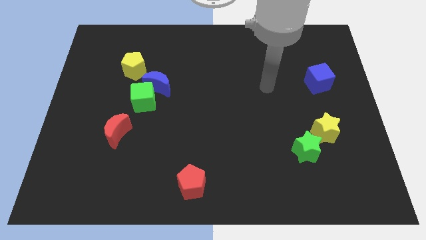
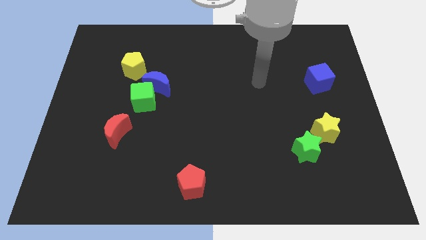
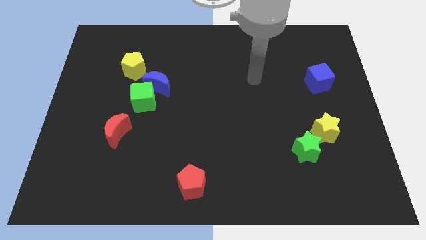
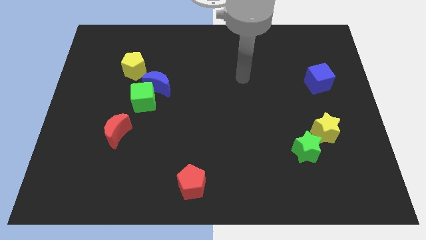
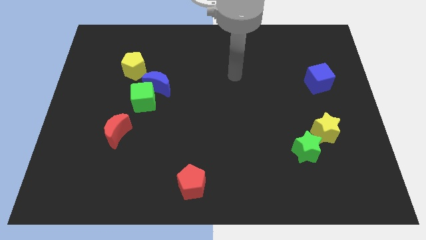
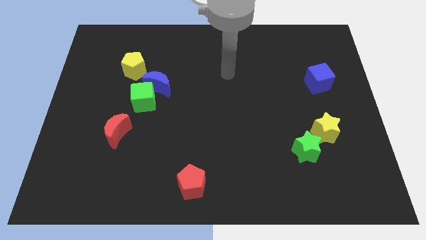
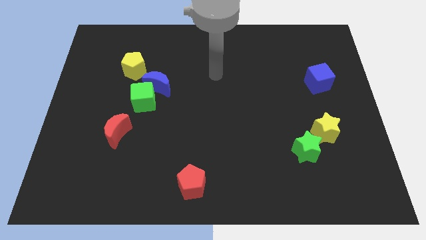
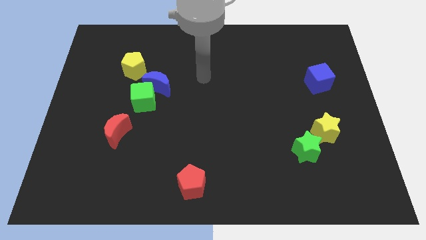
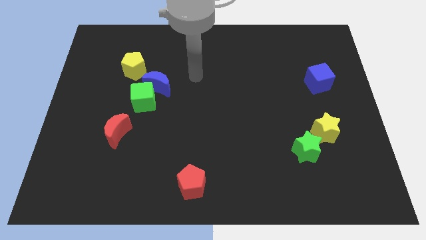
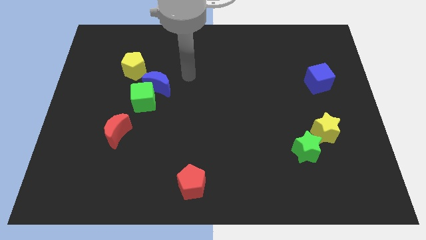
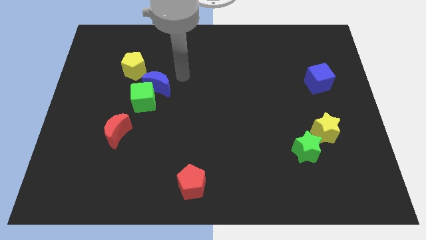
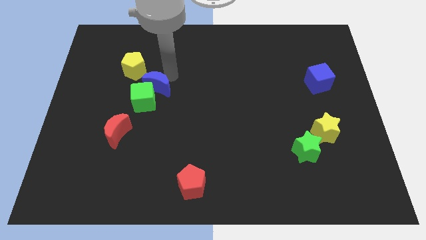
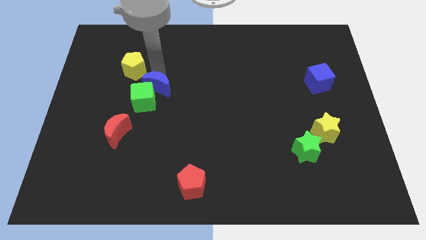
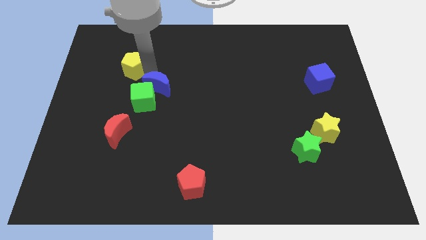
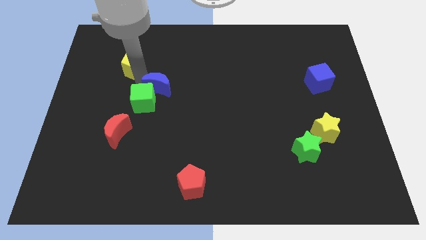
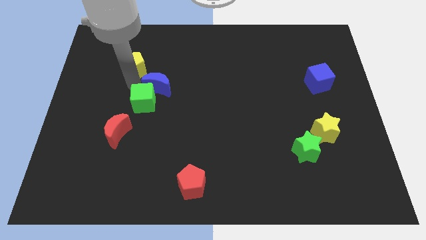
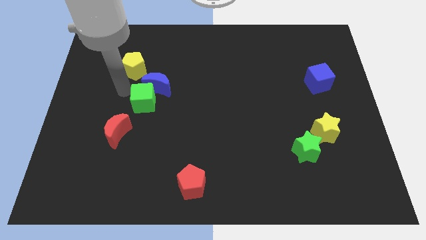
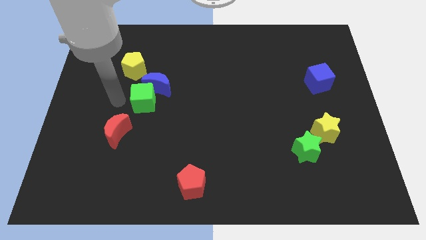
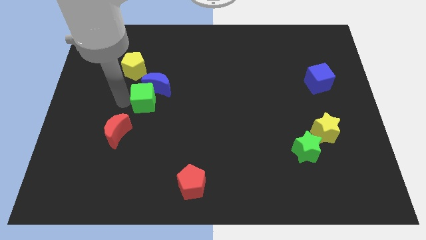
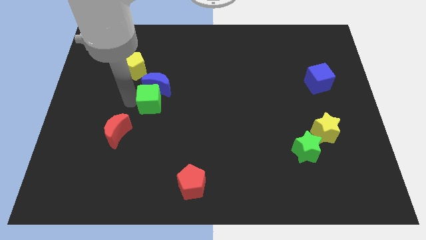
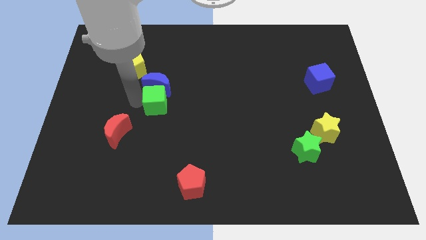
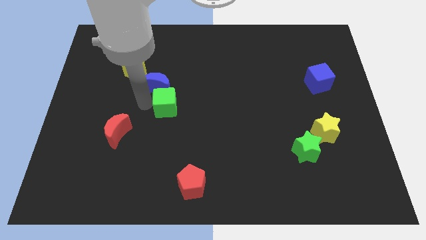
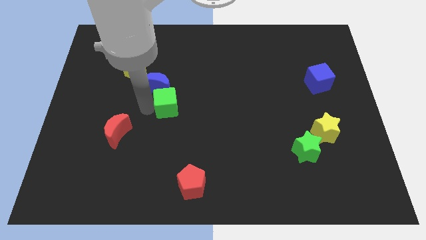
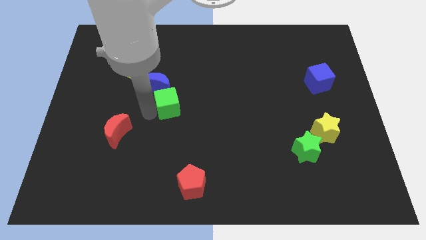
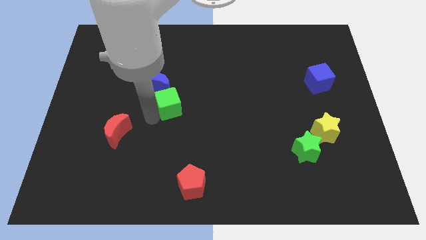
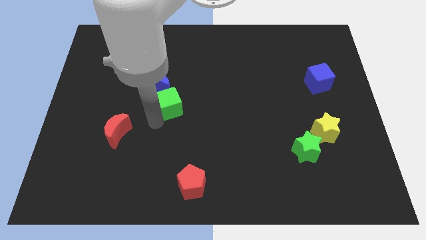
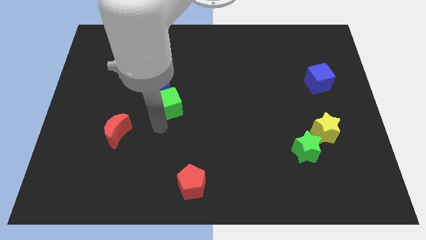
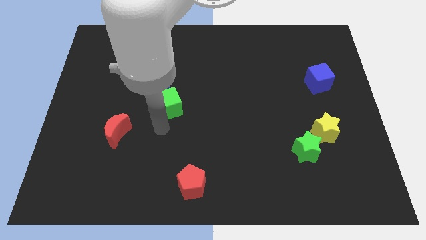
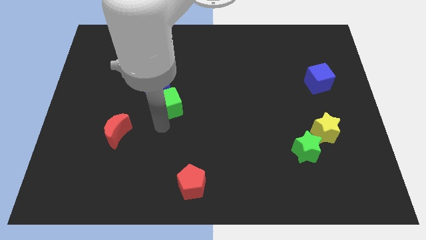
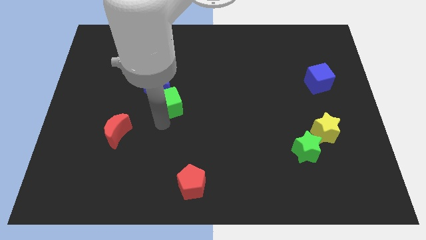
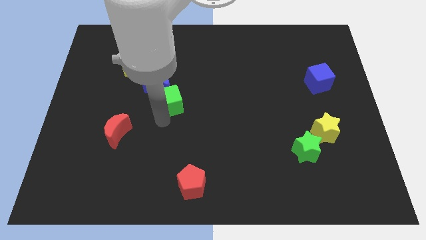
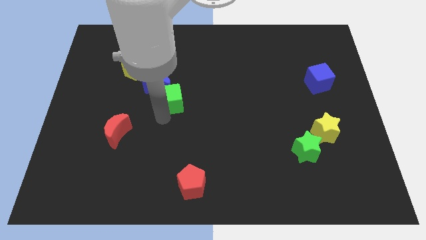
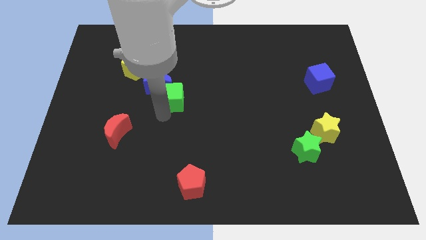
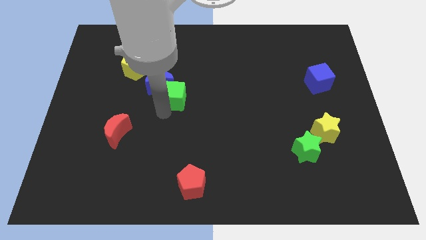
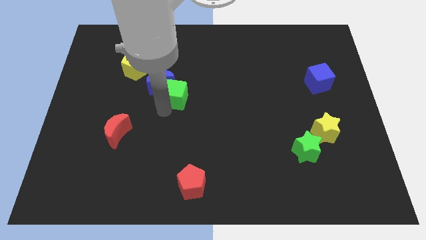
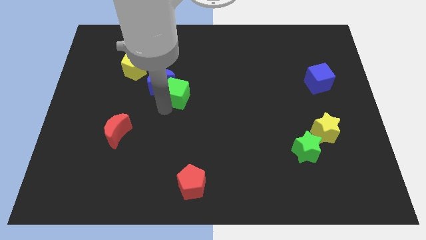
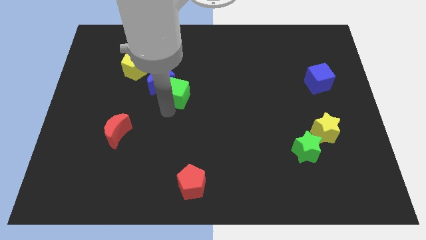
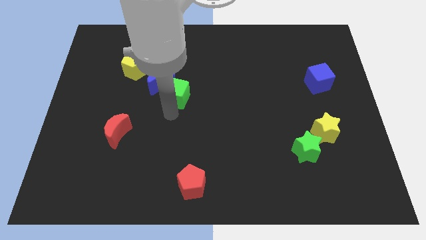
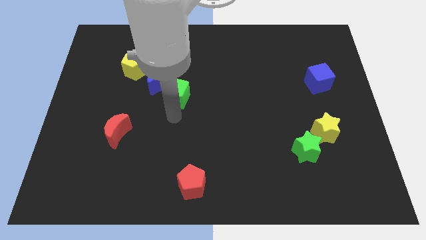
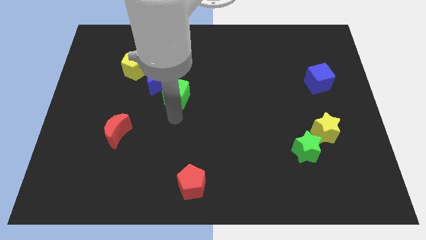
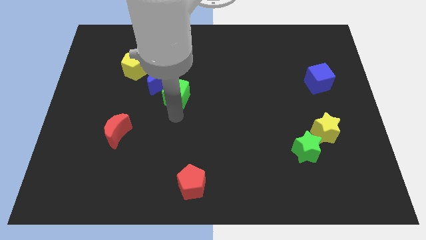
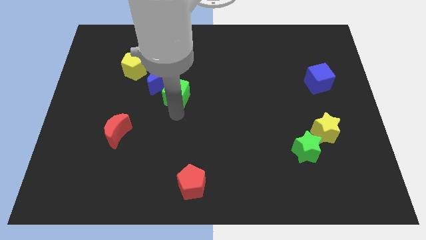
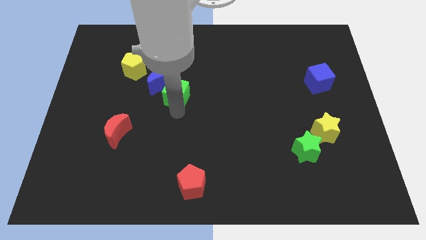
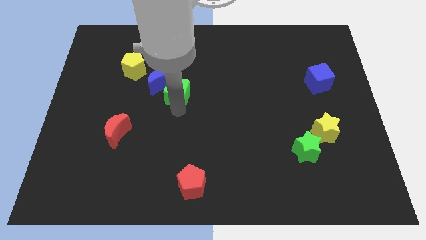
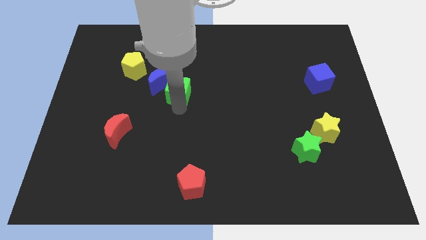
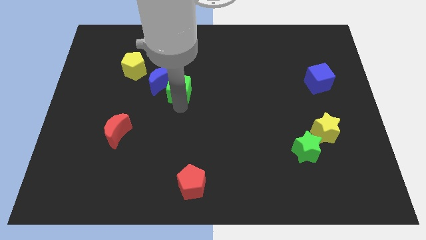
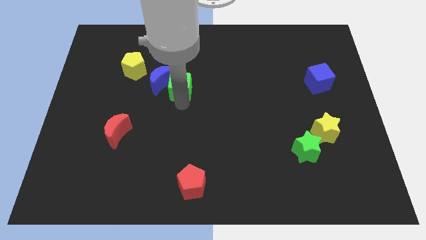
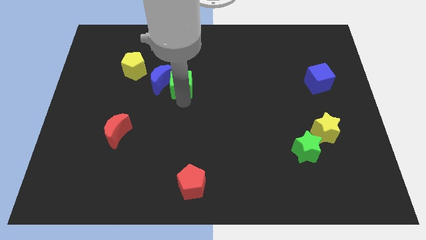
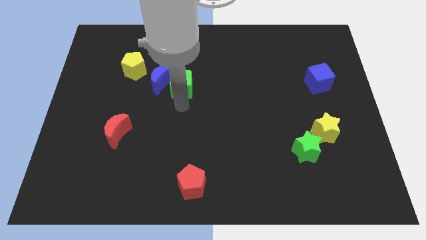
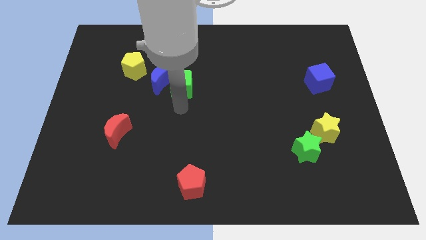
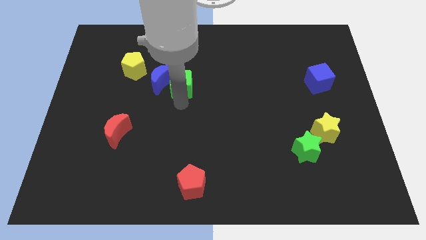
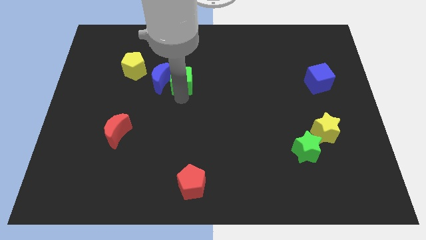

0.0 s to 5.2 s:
move the green cube to the top right of the blue moon

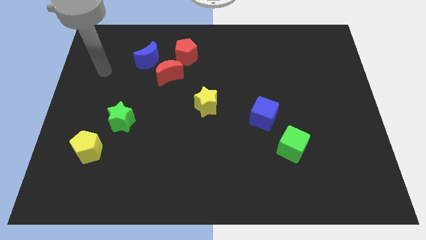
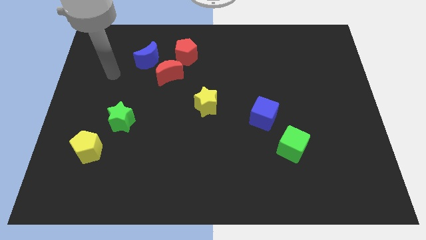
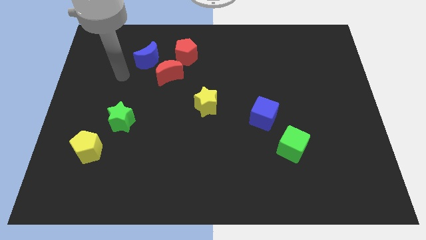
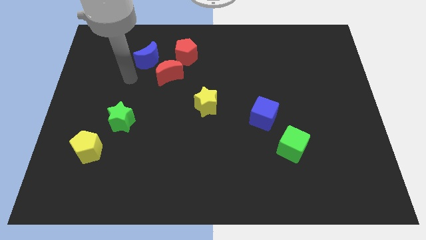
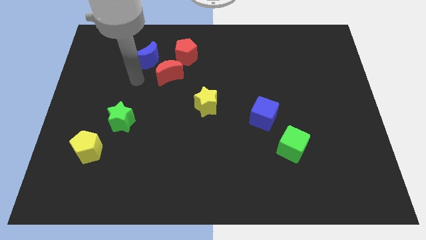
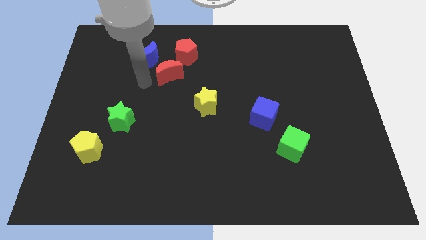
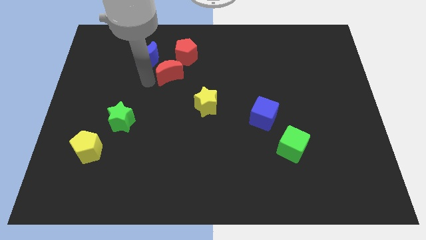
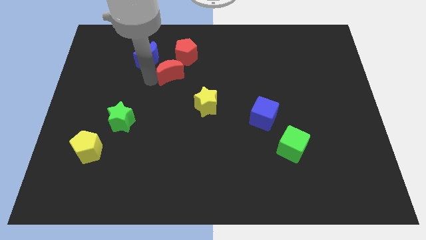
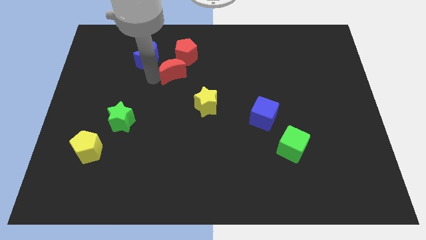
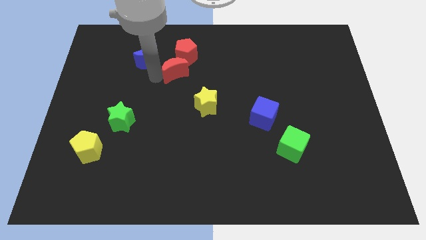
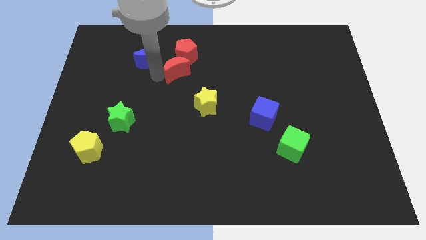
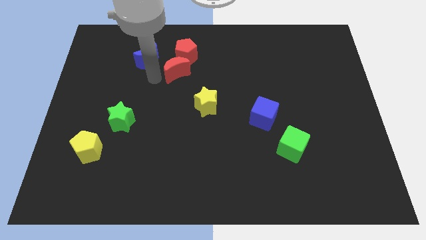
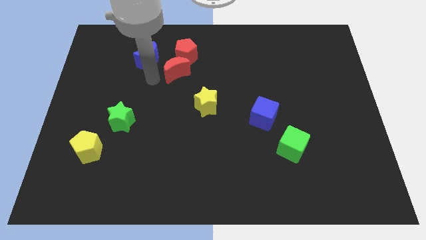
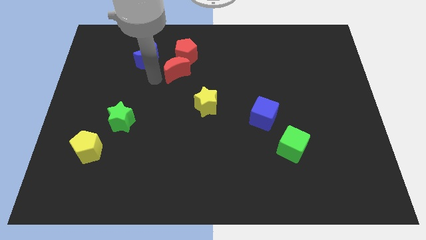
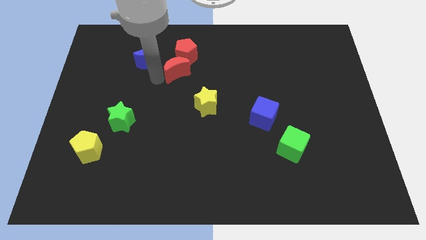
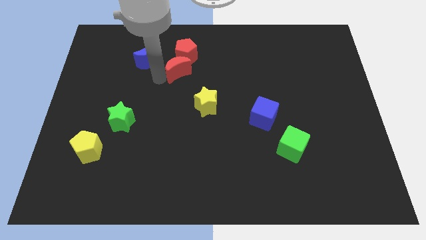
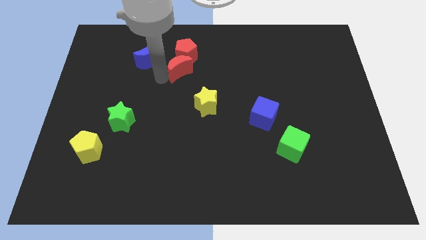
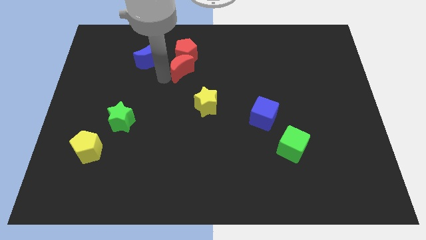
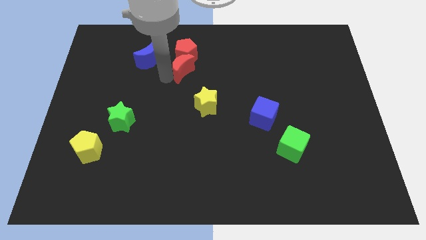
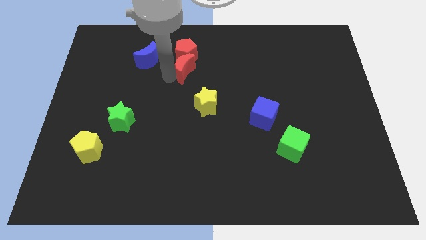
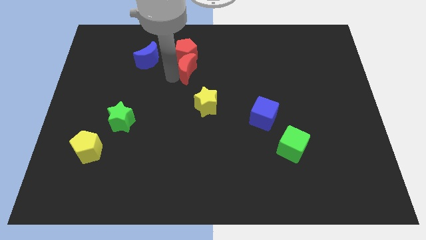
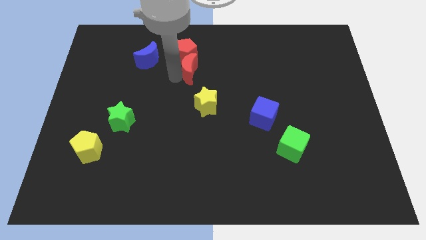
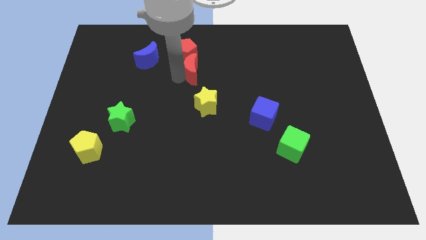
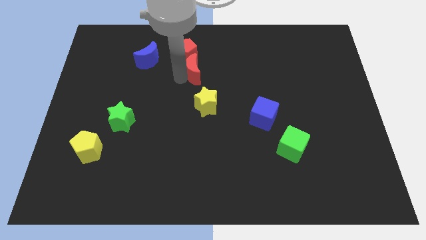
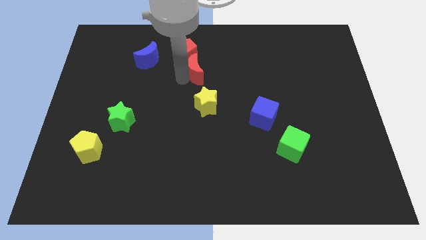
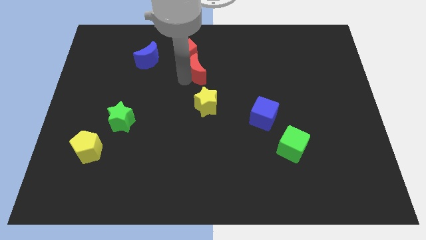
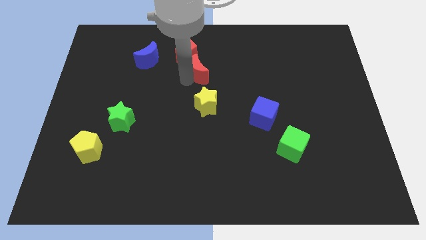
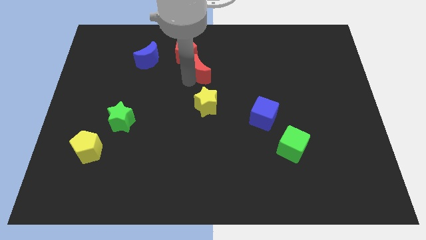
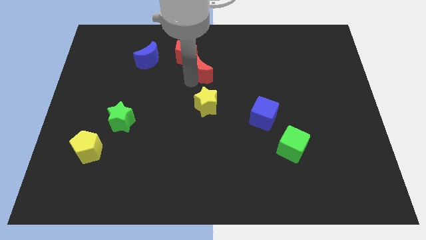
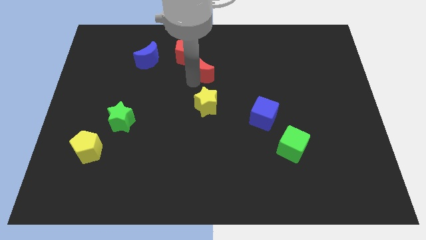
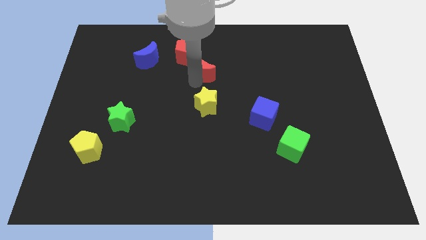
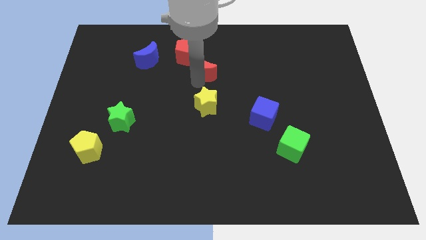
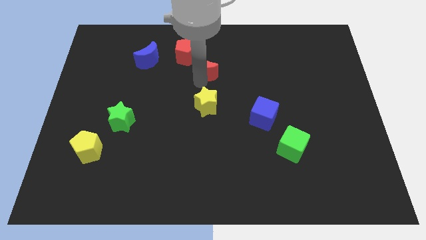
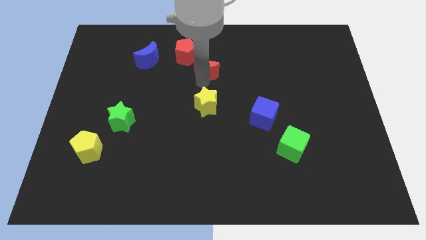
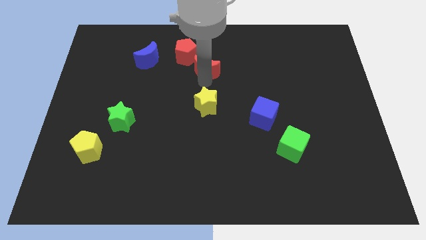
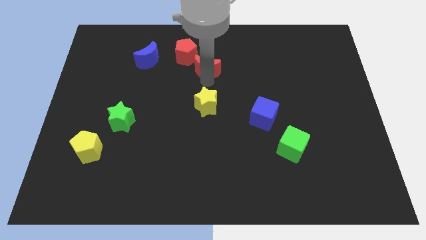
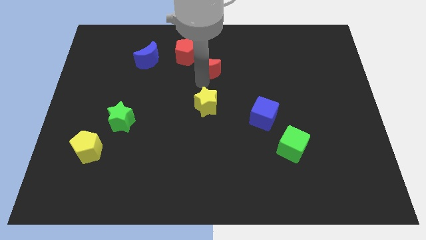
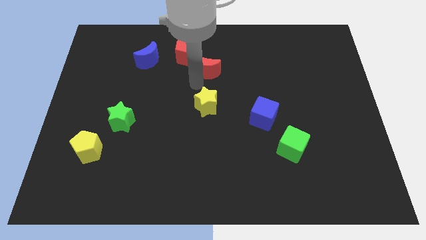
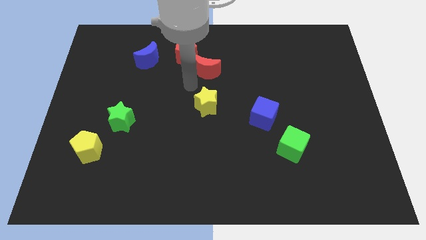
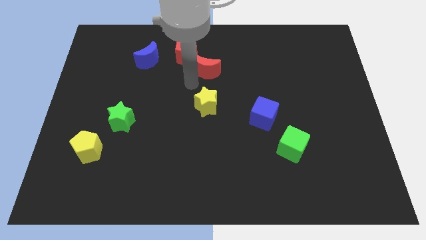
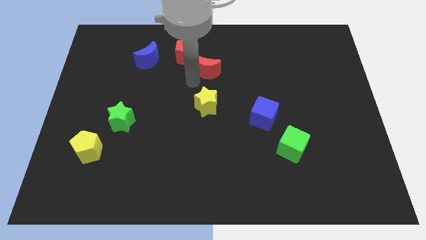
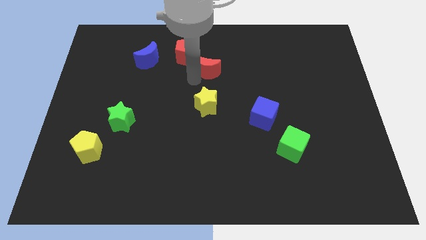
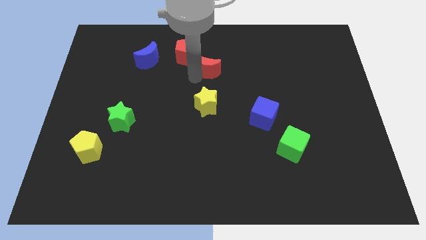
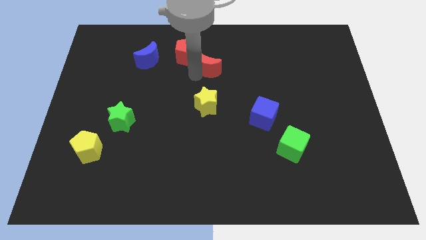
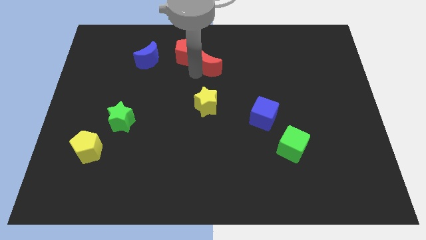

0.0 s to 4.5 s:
slide the red moon to the right side of the red pentagon
